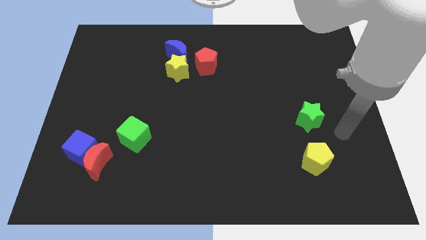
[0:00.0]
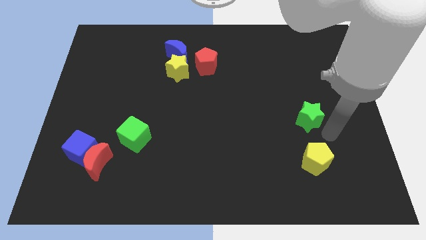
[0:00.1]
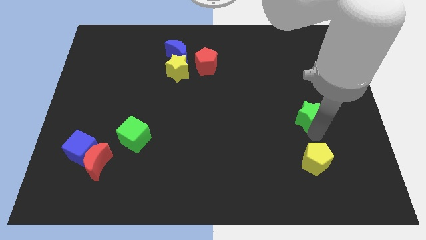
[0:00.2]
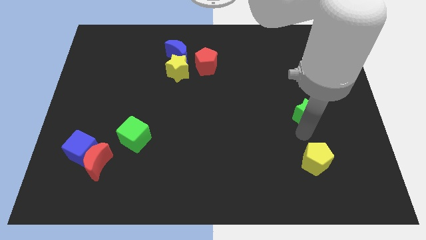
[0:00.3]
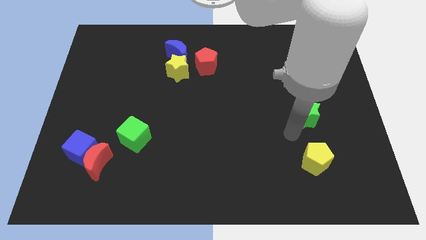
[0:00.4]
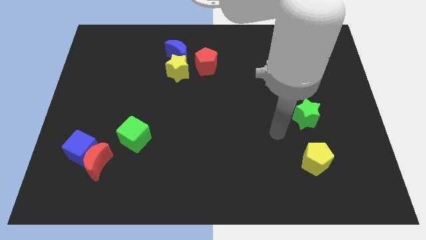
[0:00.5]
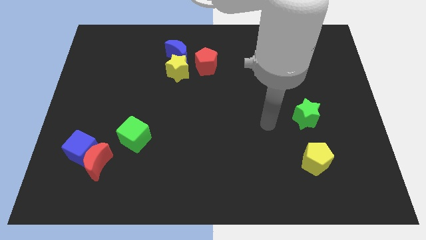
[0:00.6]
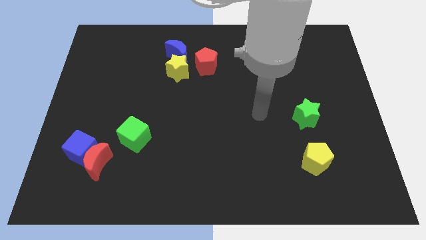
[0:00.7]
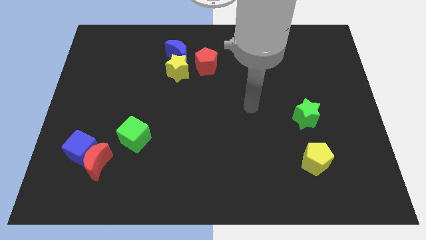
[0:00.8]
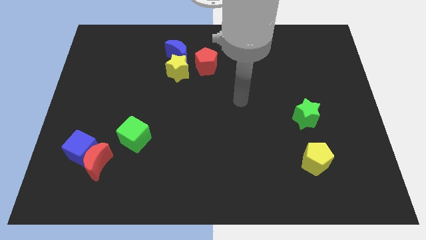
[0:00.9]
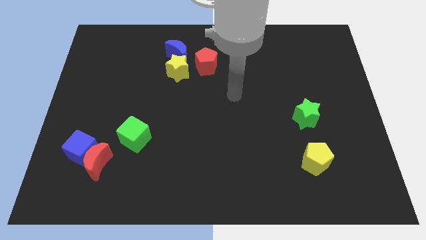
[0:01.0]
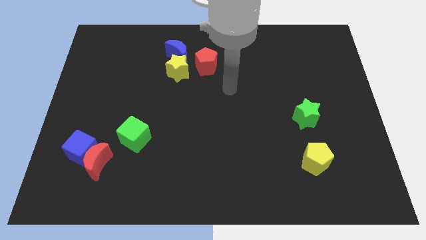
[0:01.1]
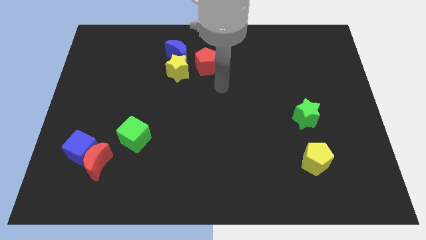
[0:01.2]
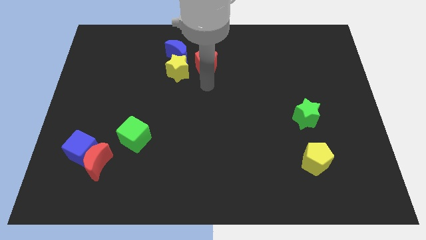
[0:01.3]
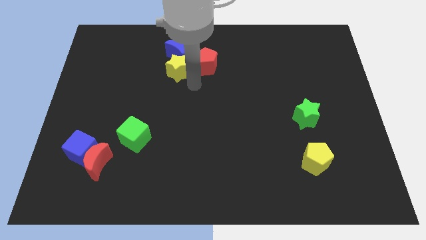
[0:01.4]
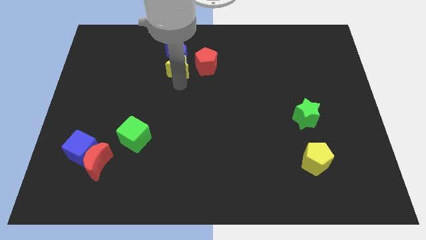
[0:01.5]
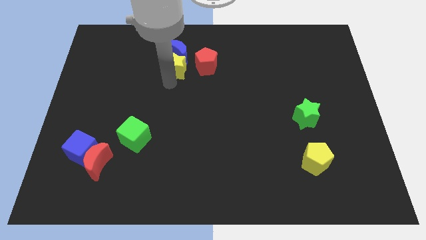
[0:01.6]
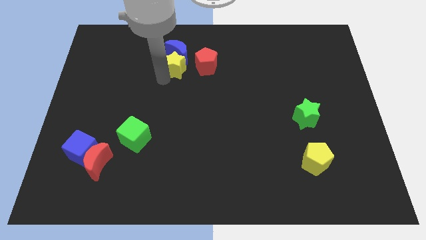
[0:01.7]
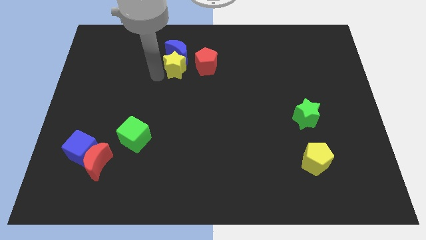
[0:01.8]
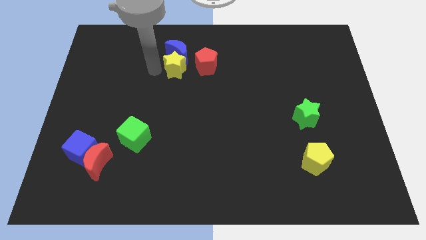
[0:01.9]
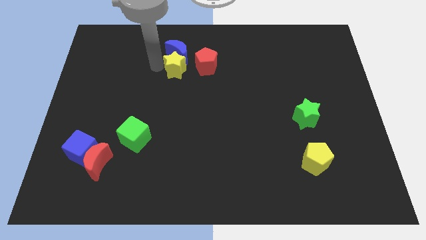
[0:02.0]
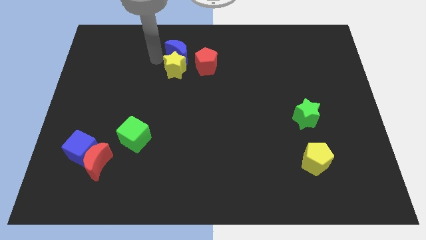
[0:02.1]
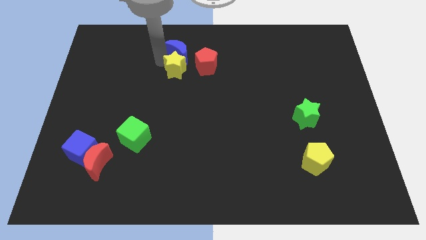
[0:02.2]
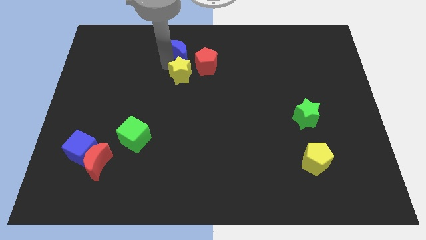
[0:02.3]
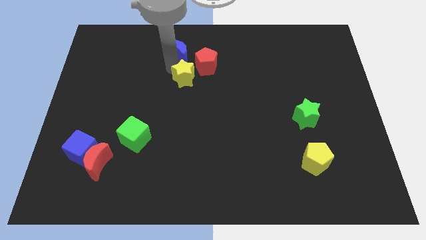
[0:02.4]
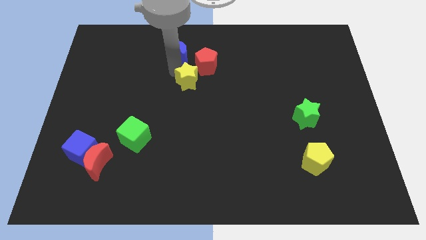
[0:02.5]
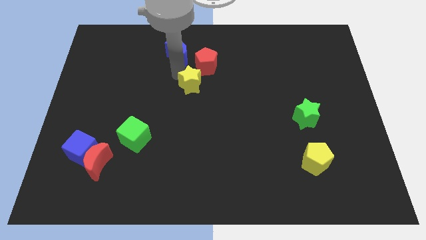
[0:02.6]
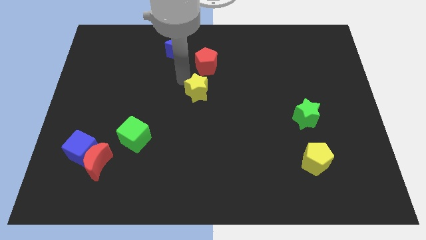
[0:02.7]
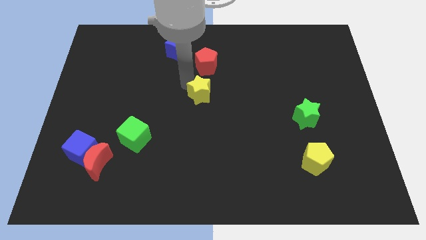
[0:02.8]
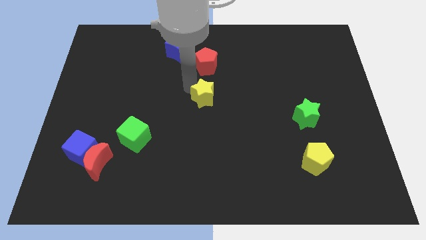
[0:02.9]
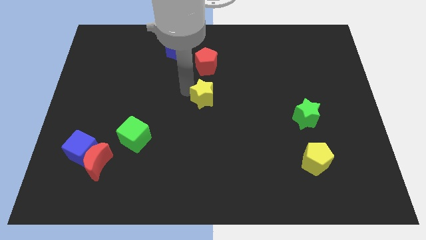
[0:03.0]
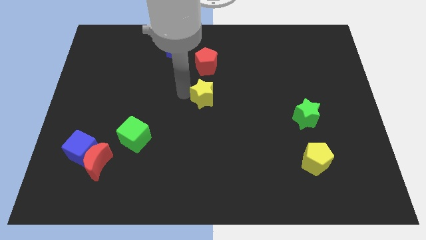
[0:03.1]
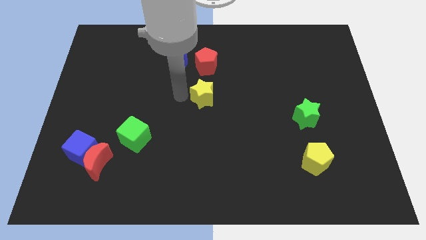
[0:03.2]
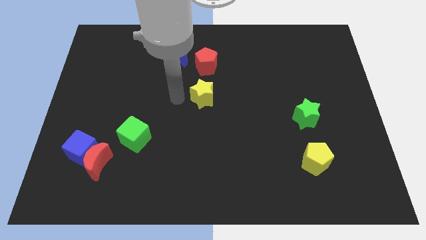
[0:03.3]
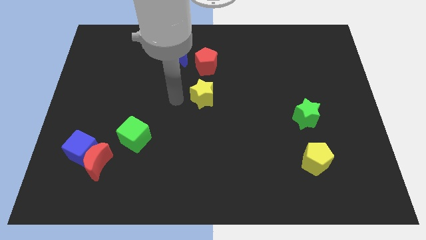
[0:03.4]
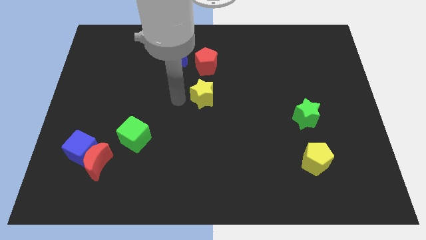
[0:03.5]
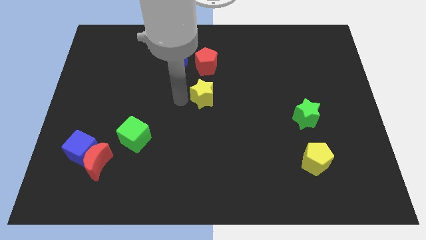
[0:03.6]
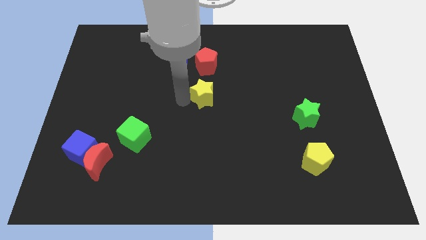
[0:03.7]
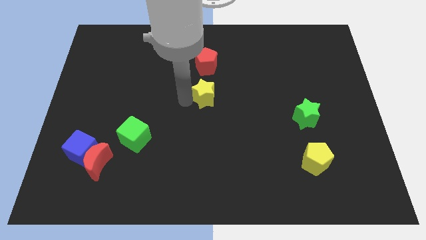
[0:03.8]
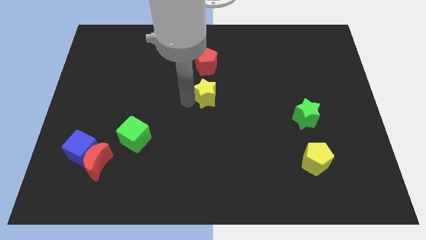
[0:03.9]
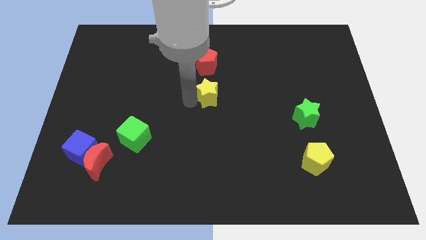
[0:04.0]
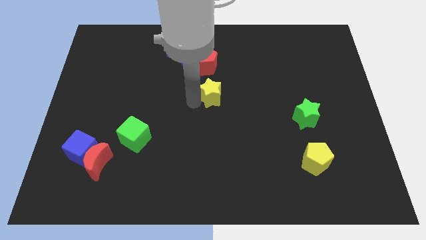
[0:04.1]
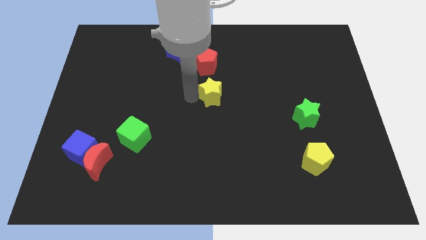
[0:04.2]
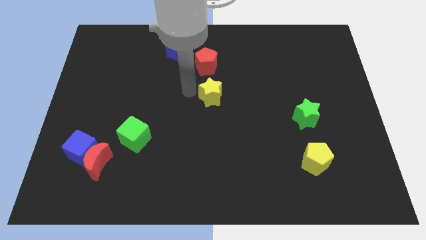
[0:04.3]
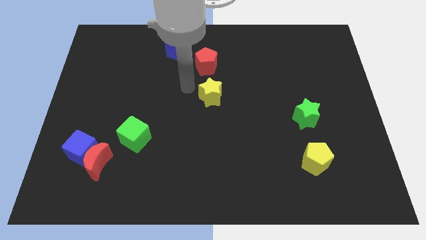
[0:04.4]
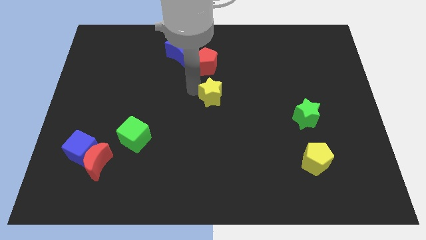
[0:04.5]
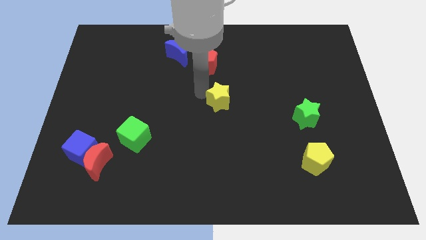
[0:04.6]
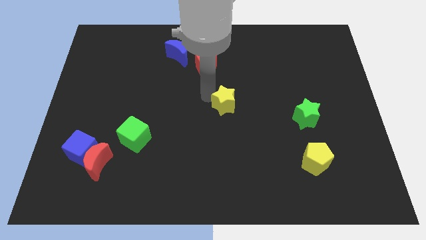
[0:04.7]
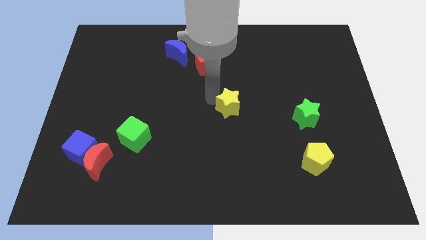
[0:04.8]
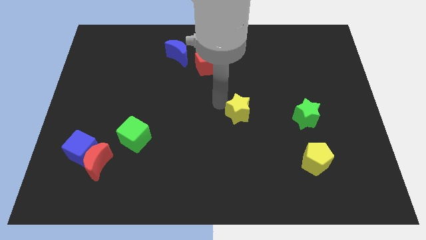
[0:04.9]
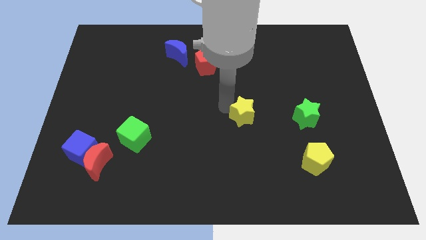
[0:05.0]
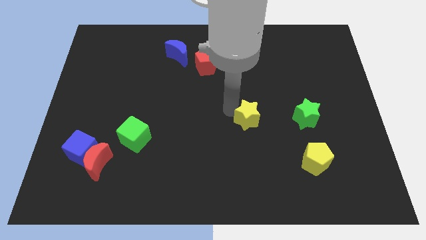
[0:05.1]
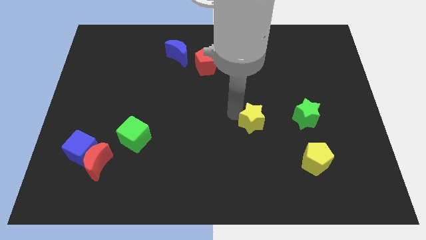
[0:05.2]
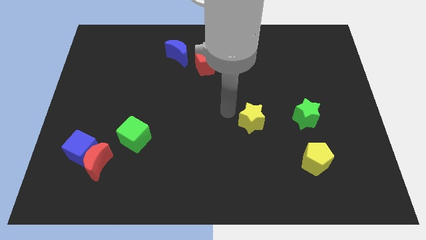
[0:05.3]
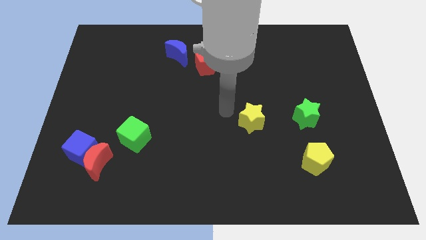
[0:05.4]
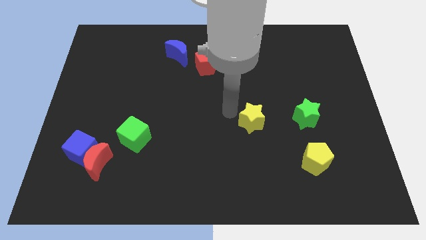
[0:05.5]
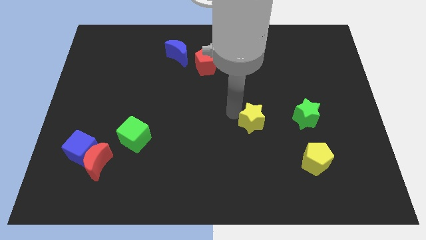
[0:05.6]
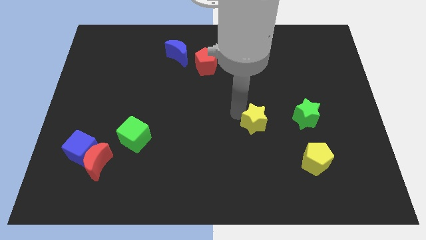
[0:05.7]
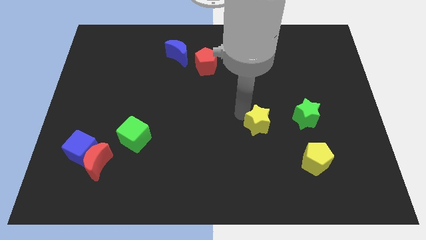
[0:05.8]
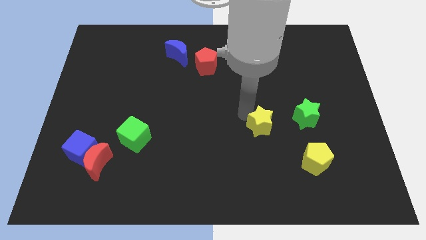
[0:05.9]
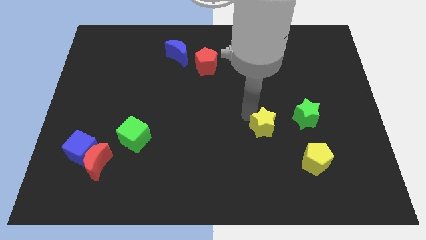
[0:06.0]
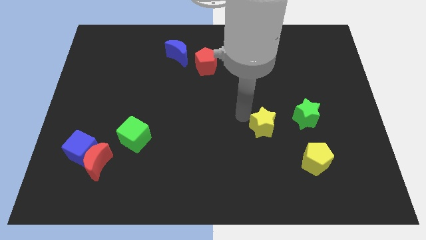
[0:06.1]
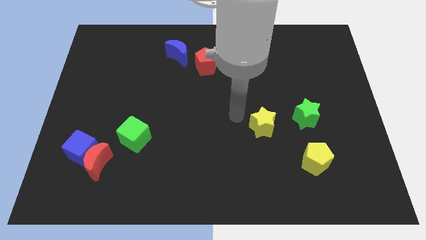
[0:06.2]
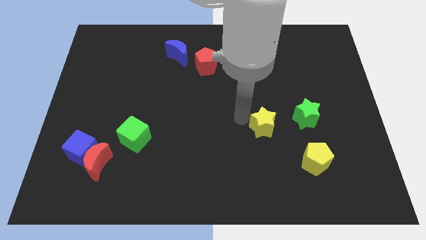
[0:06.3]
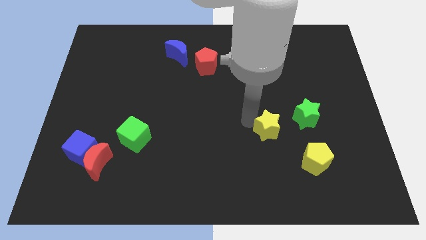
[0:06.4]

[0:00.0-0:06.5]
slide the yellow star to the bottom left side of the green star
